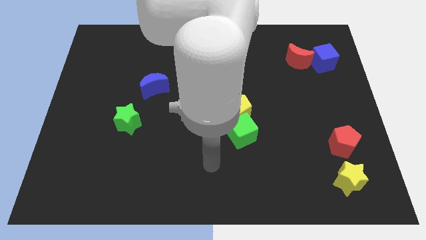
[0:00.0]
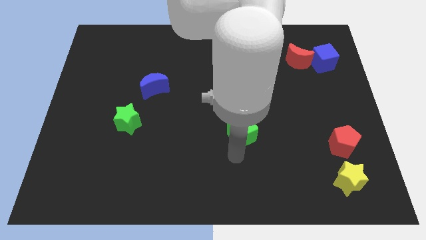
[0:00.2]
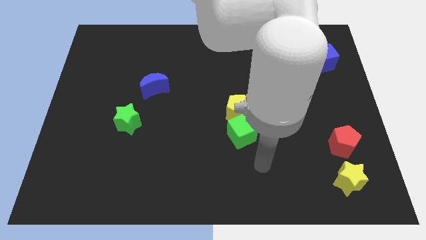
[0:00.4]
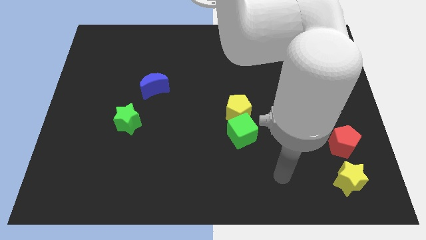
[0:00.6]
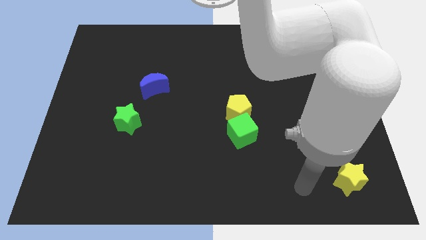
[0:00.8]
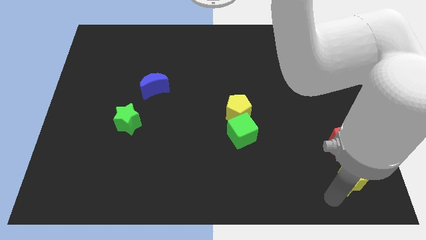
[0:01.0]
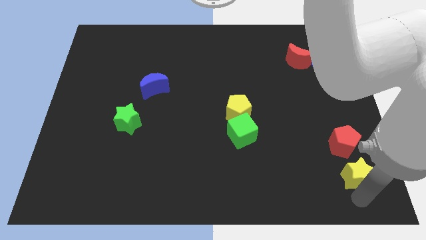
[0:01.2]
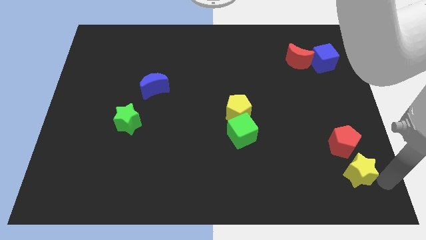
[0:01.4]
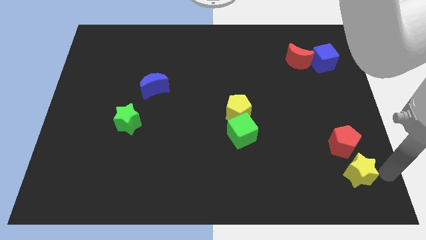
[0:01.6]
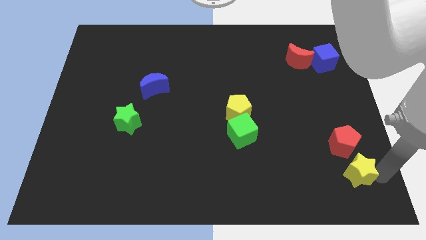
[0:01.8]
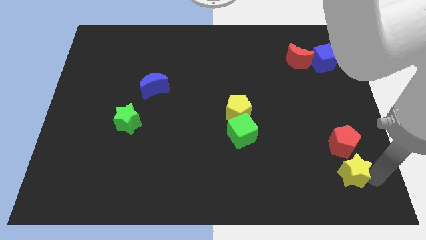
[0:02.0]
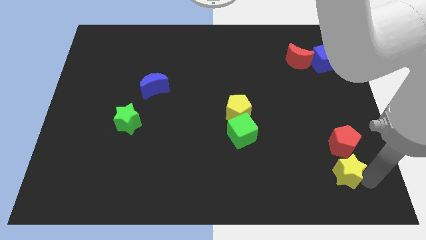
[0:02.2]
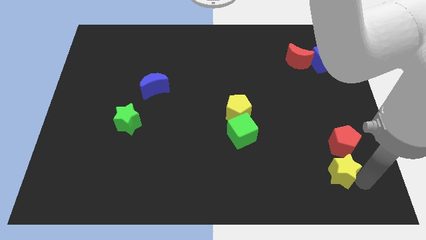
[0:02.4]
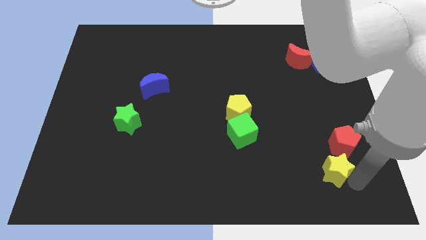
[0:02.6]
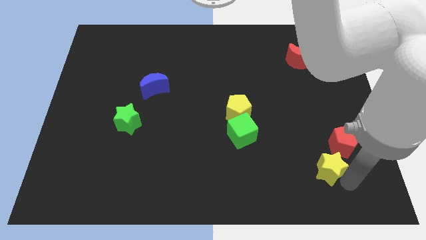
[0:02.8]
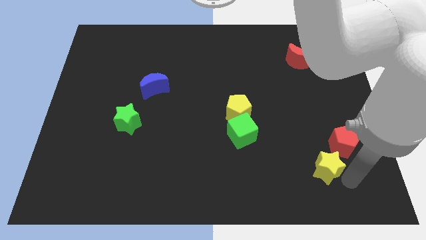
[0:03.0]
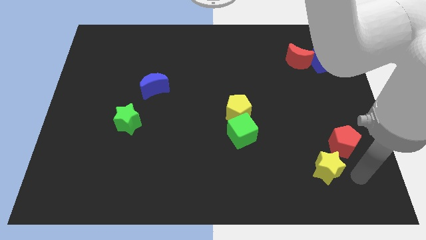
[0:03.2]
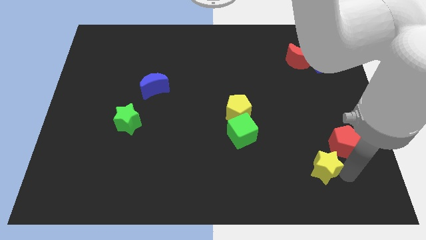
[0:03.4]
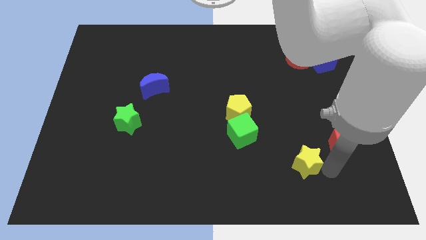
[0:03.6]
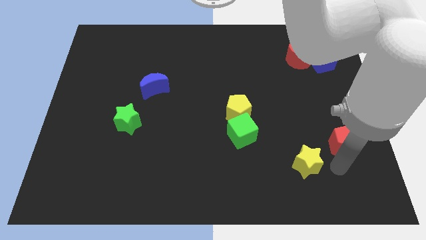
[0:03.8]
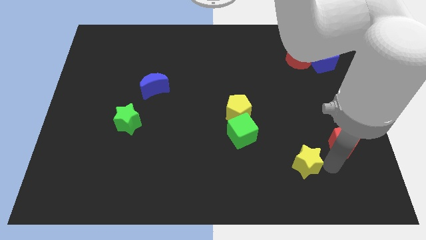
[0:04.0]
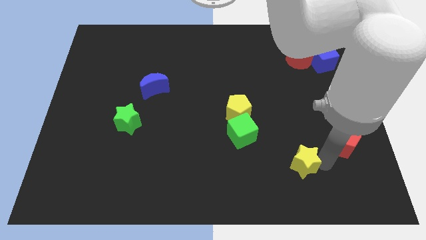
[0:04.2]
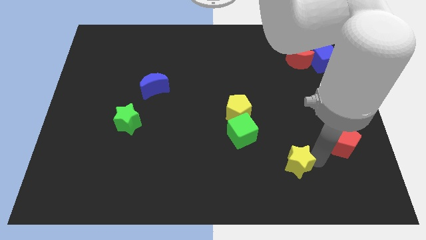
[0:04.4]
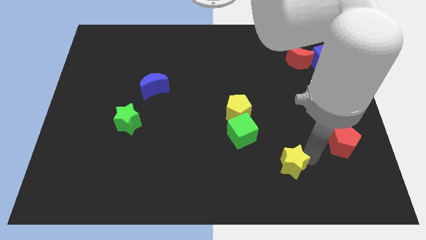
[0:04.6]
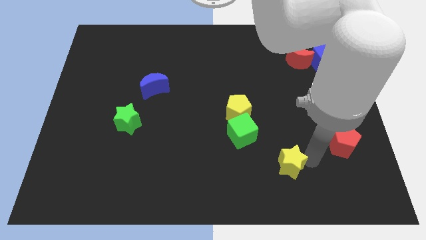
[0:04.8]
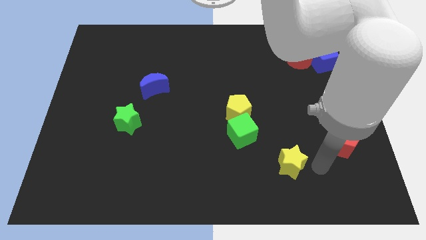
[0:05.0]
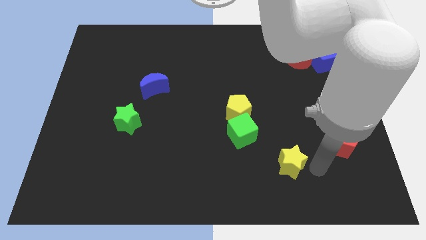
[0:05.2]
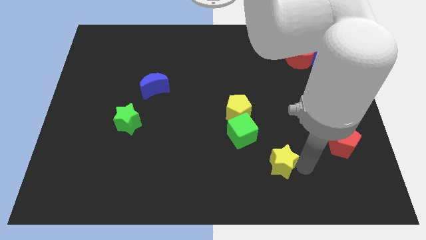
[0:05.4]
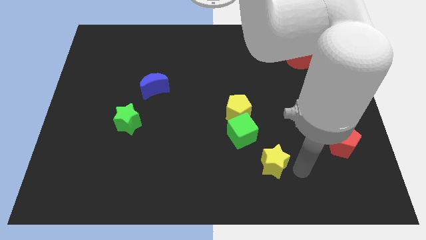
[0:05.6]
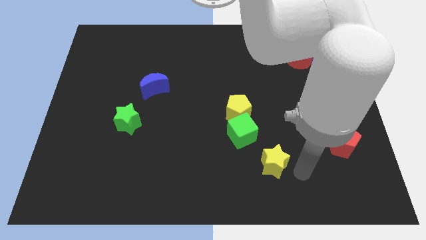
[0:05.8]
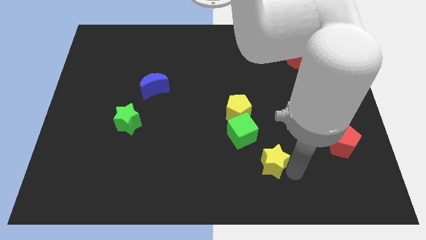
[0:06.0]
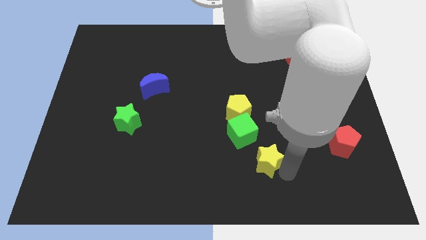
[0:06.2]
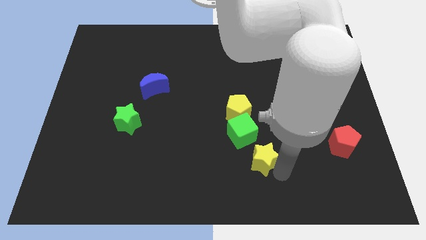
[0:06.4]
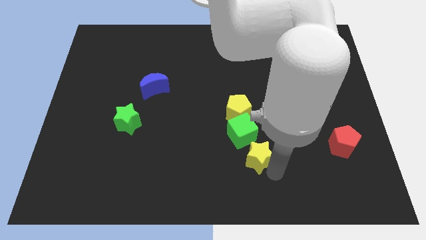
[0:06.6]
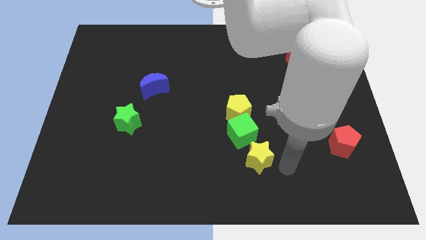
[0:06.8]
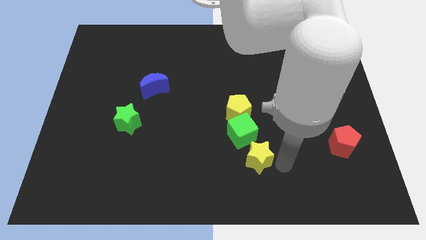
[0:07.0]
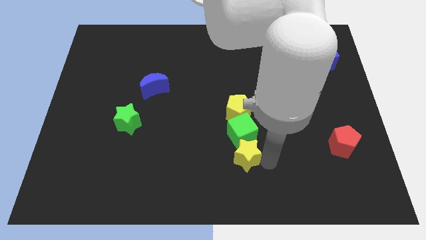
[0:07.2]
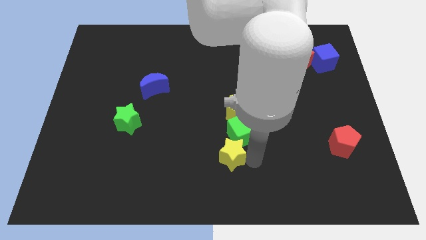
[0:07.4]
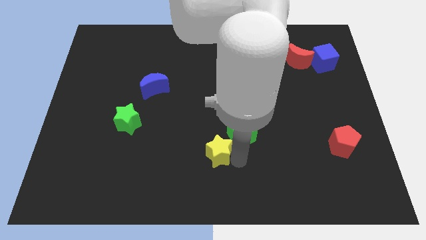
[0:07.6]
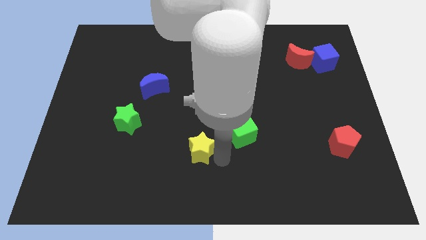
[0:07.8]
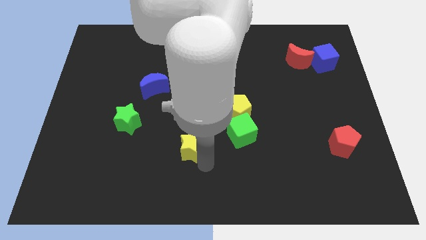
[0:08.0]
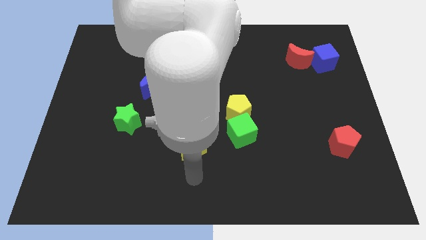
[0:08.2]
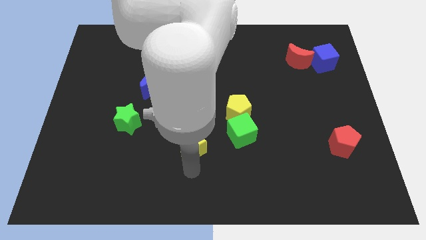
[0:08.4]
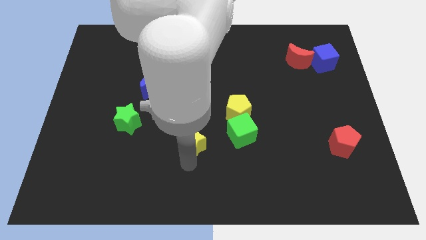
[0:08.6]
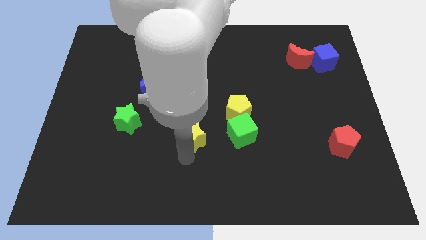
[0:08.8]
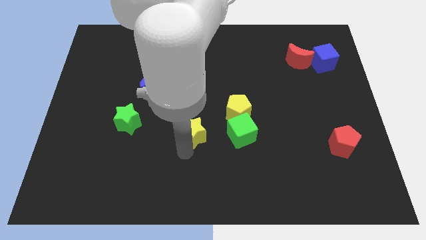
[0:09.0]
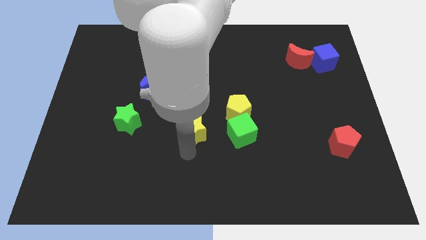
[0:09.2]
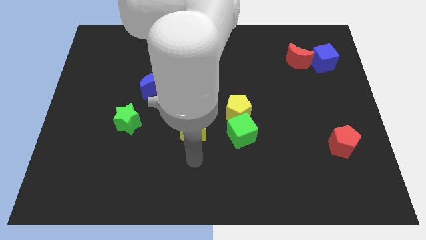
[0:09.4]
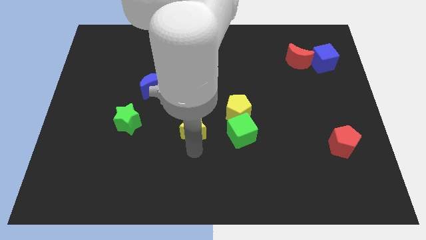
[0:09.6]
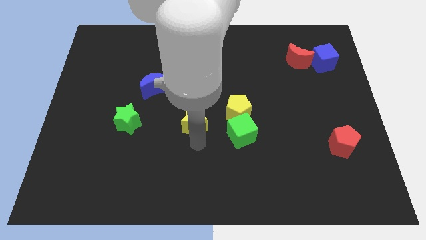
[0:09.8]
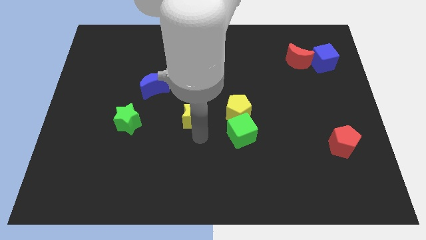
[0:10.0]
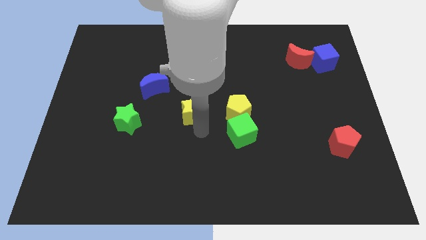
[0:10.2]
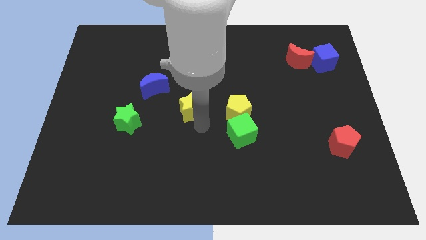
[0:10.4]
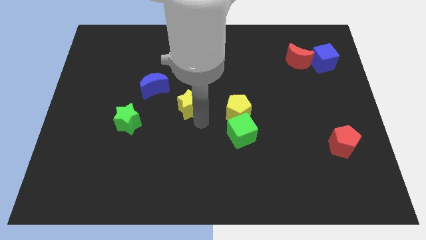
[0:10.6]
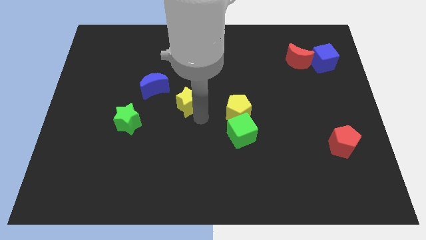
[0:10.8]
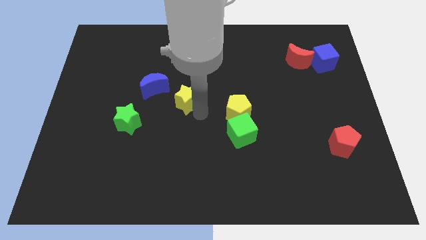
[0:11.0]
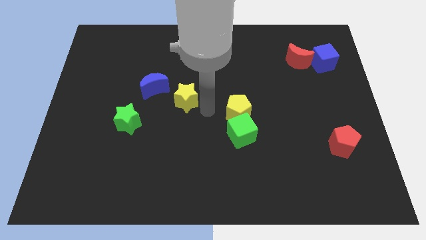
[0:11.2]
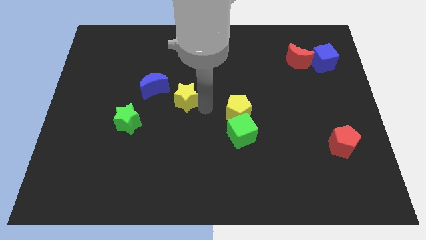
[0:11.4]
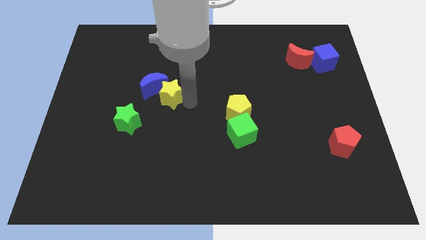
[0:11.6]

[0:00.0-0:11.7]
push the yellow star next to the blue moon

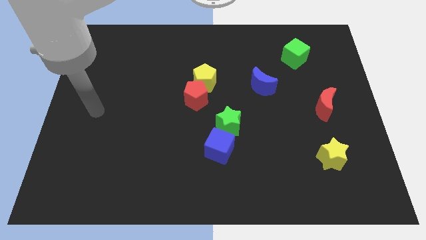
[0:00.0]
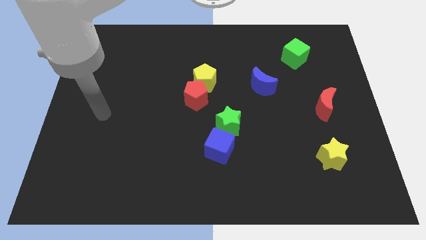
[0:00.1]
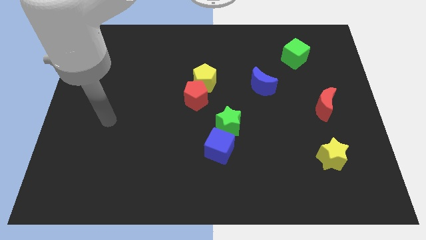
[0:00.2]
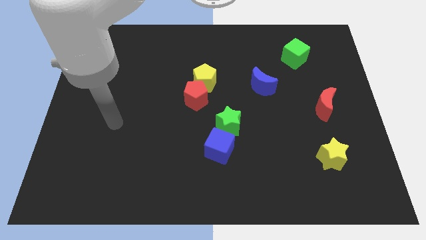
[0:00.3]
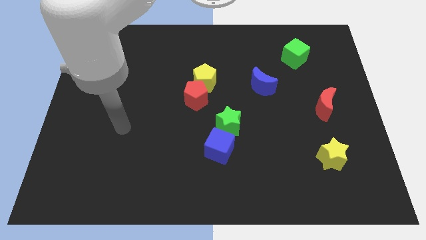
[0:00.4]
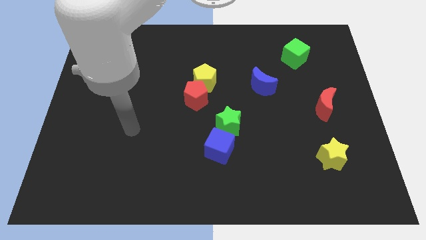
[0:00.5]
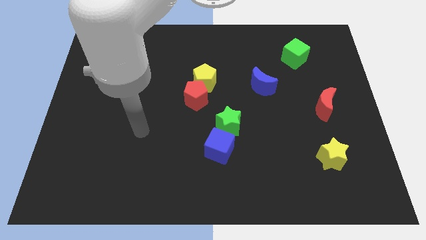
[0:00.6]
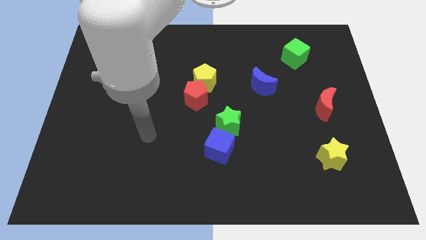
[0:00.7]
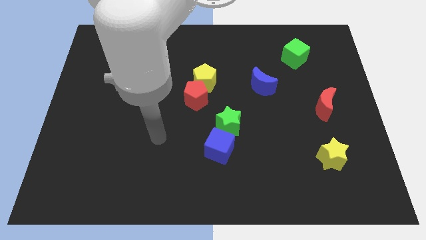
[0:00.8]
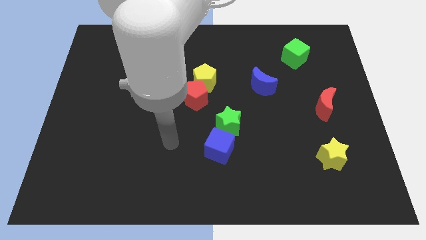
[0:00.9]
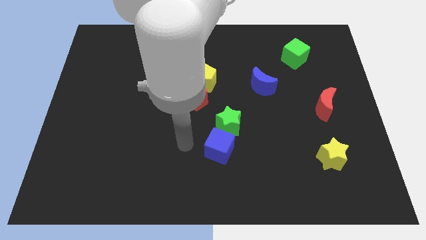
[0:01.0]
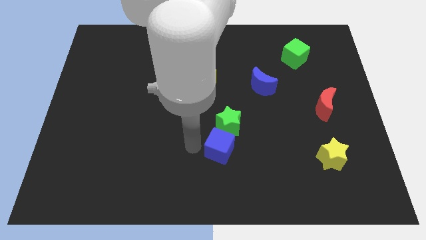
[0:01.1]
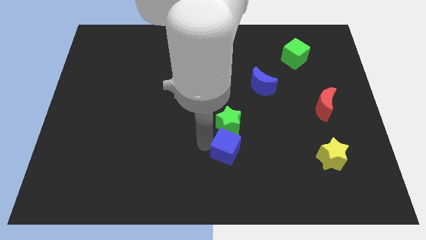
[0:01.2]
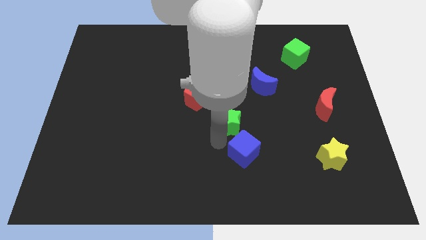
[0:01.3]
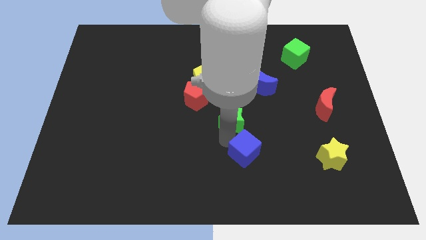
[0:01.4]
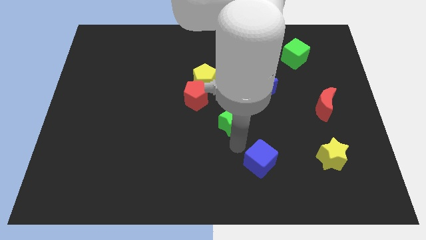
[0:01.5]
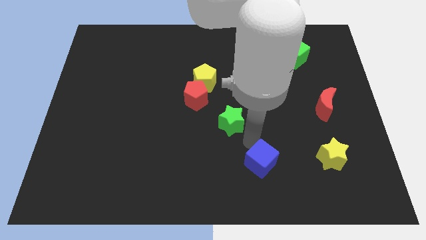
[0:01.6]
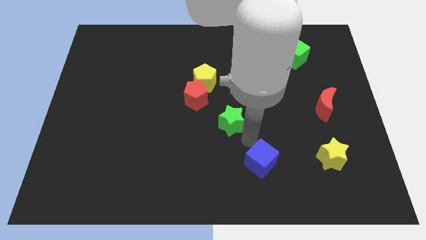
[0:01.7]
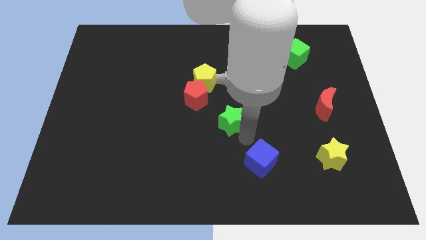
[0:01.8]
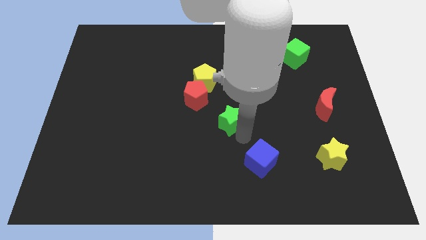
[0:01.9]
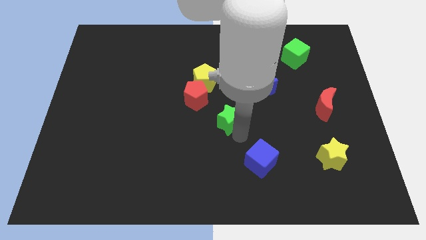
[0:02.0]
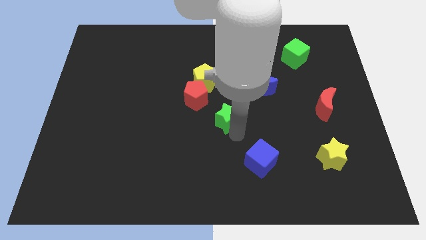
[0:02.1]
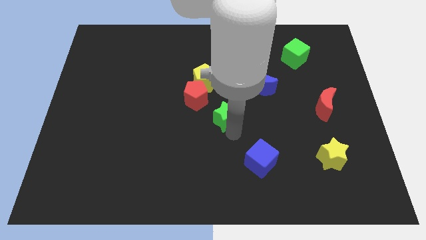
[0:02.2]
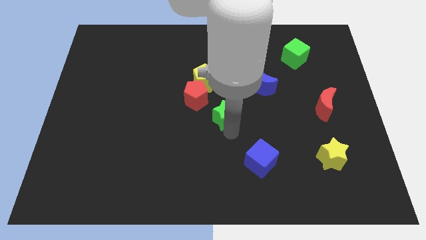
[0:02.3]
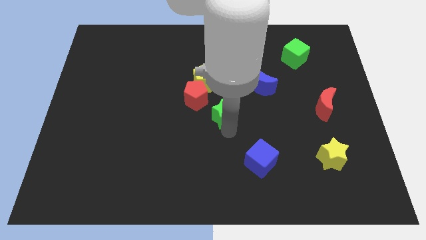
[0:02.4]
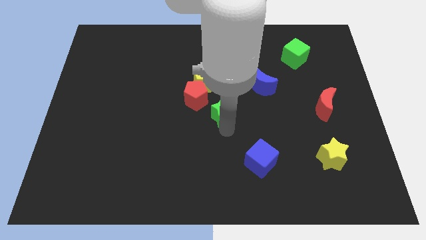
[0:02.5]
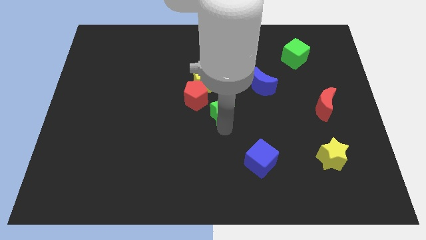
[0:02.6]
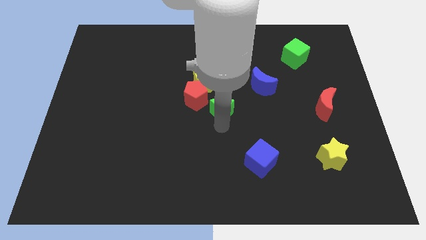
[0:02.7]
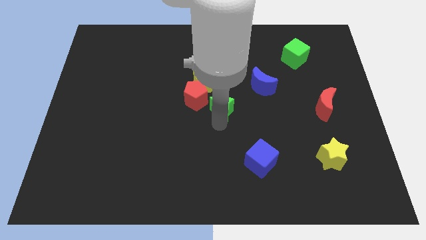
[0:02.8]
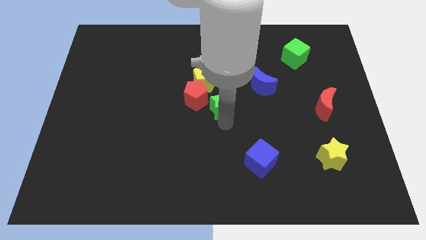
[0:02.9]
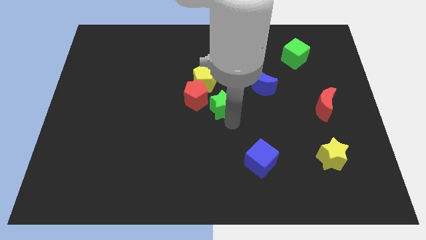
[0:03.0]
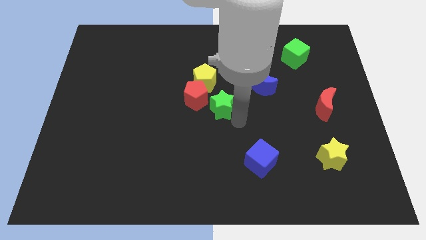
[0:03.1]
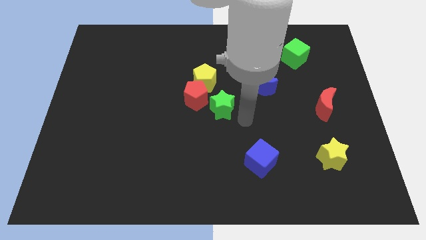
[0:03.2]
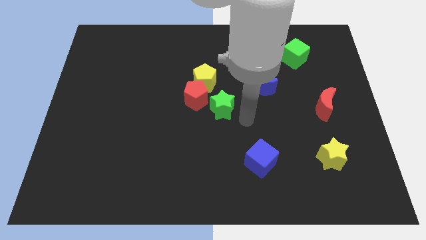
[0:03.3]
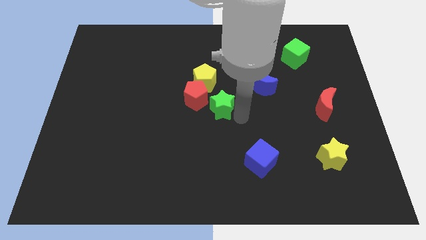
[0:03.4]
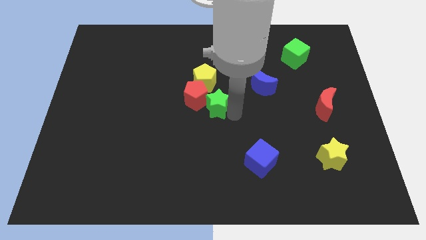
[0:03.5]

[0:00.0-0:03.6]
push the green star next to the red pentagon
